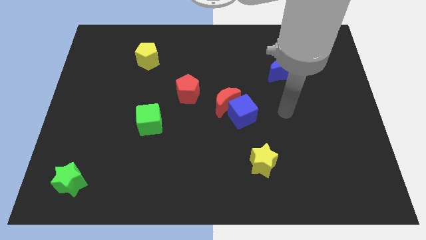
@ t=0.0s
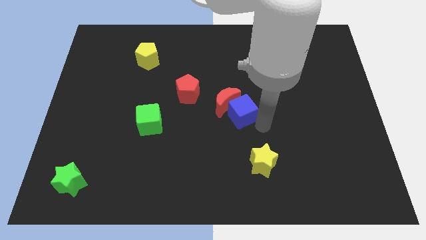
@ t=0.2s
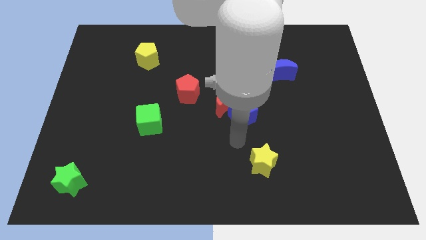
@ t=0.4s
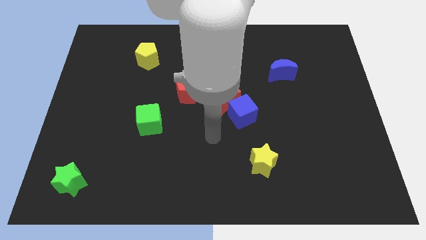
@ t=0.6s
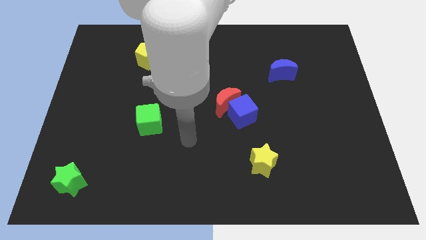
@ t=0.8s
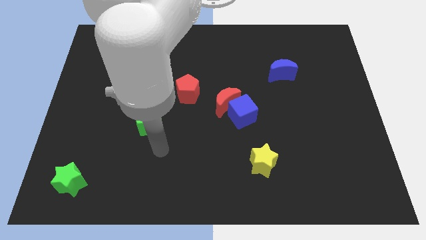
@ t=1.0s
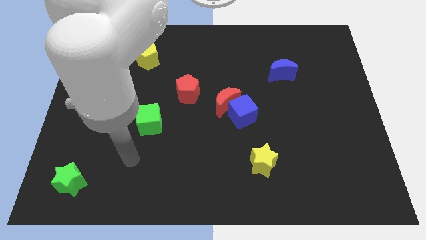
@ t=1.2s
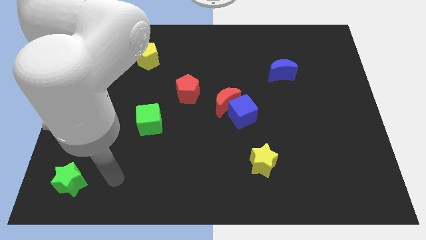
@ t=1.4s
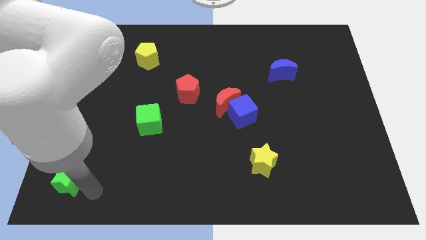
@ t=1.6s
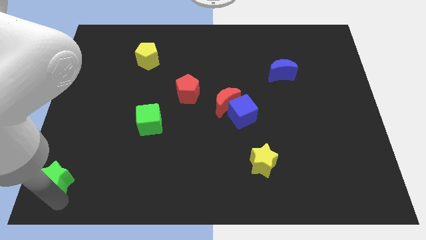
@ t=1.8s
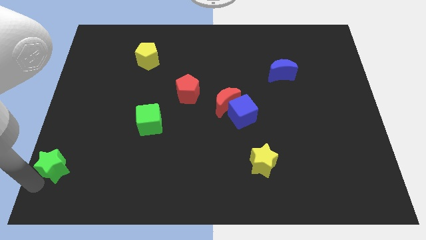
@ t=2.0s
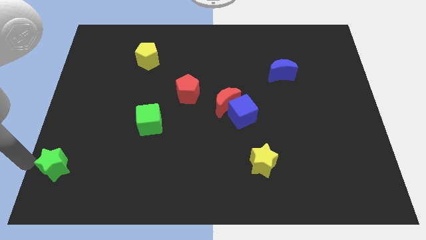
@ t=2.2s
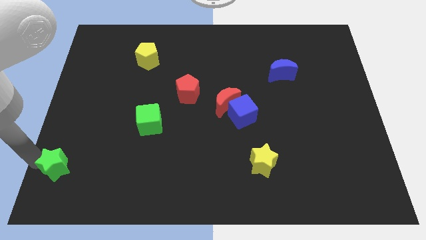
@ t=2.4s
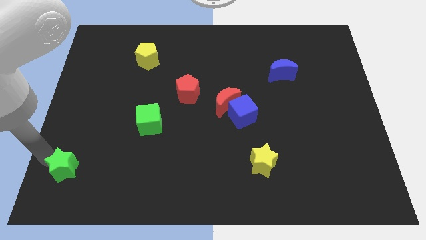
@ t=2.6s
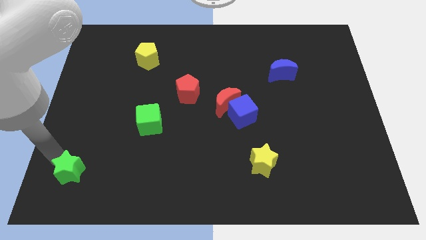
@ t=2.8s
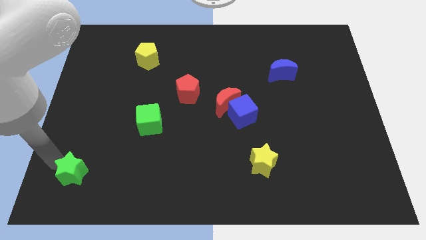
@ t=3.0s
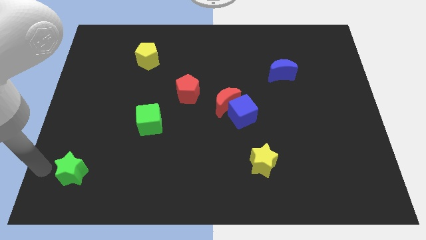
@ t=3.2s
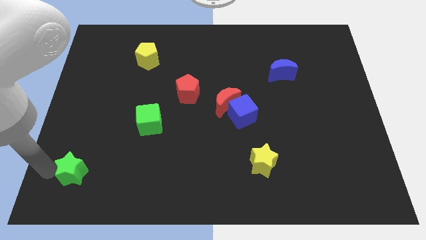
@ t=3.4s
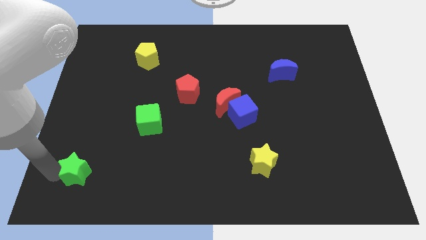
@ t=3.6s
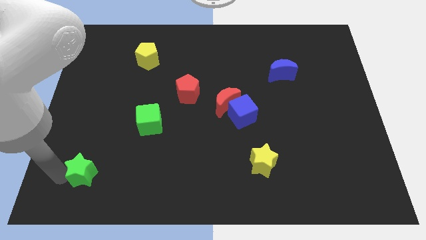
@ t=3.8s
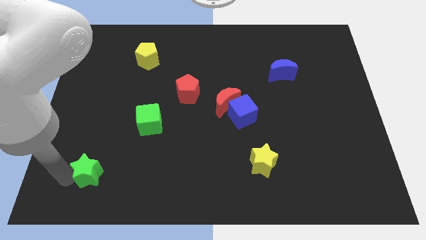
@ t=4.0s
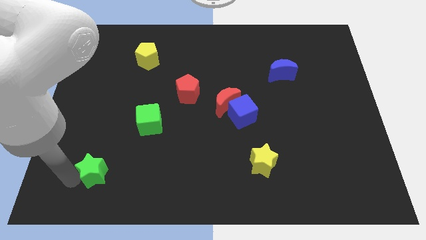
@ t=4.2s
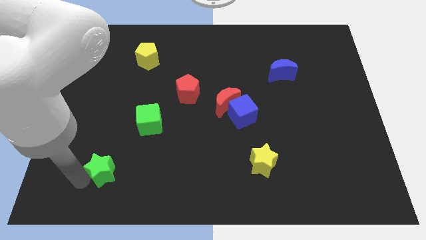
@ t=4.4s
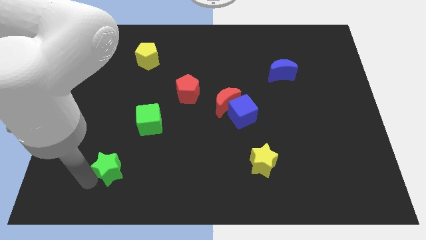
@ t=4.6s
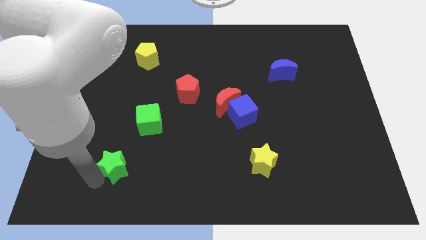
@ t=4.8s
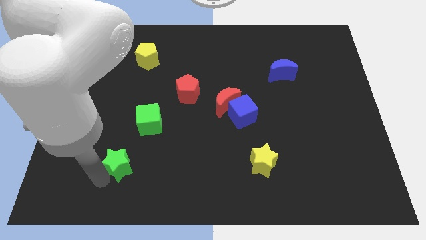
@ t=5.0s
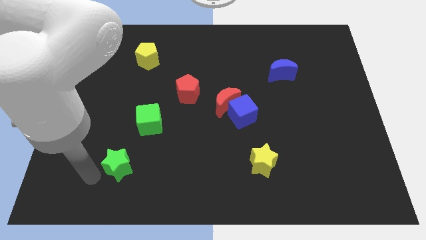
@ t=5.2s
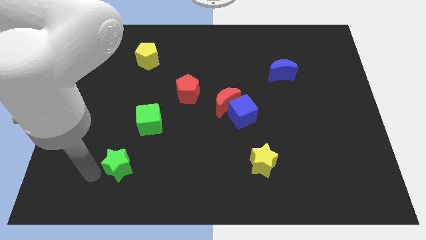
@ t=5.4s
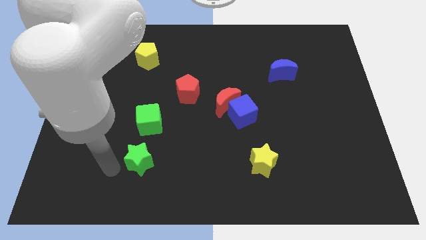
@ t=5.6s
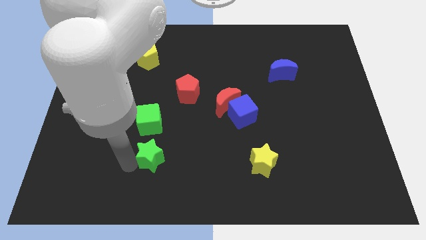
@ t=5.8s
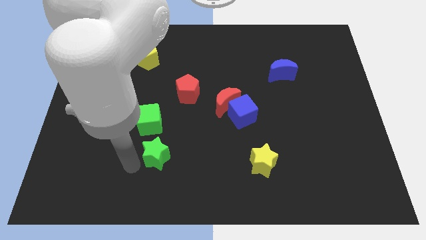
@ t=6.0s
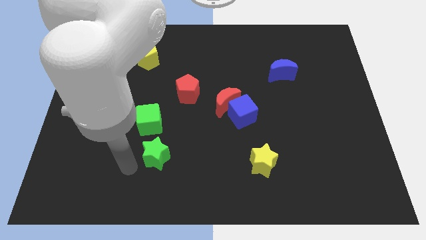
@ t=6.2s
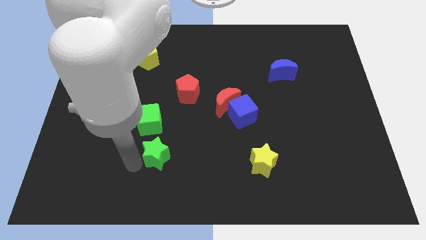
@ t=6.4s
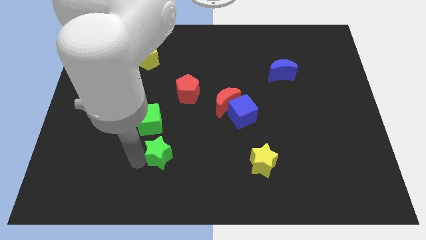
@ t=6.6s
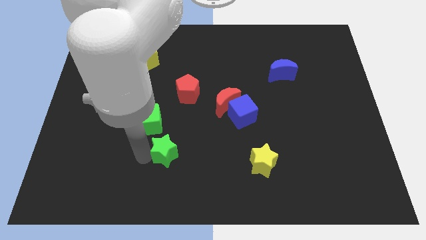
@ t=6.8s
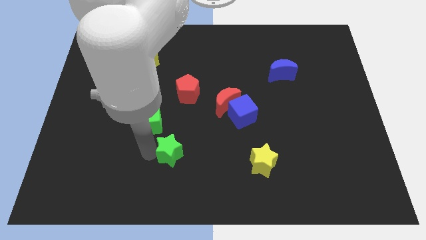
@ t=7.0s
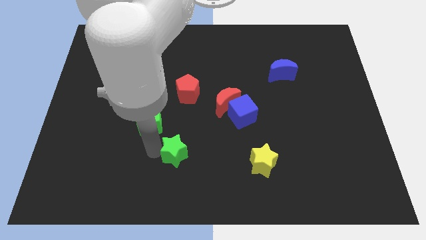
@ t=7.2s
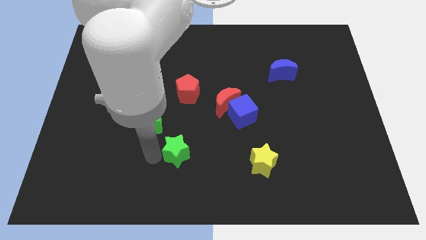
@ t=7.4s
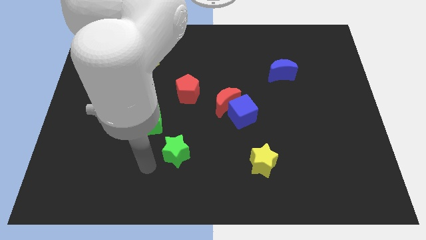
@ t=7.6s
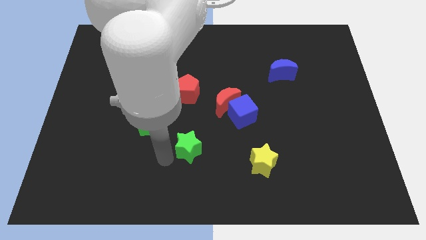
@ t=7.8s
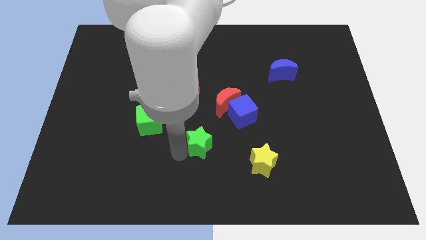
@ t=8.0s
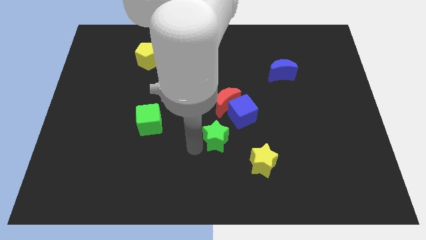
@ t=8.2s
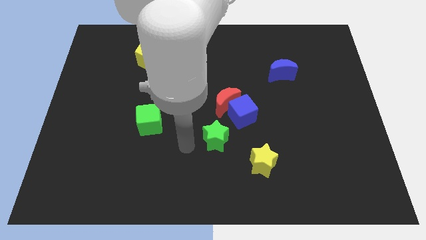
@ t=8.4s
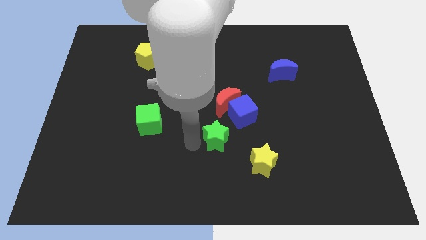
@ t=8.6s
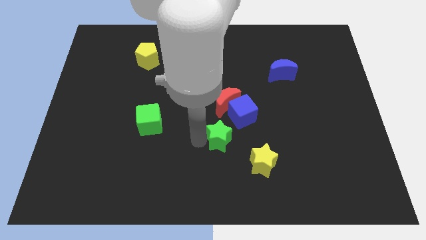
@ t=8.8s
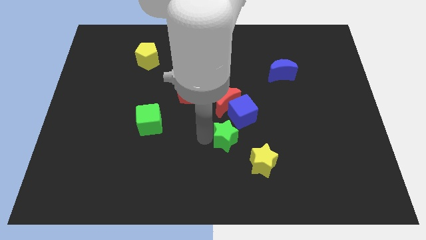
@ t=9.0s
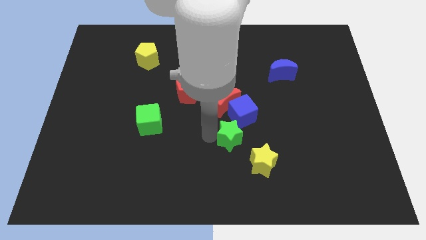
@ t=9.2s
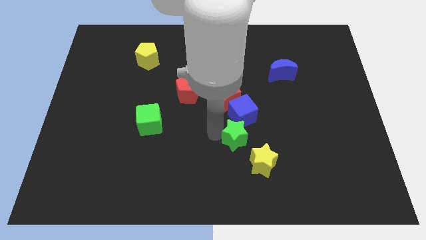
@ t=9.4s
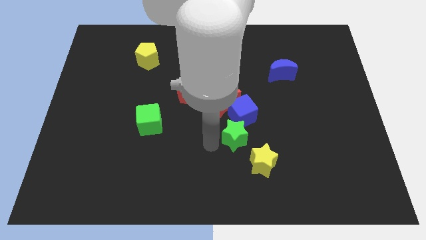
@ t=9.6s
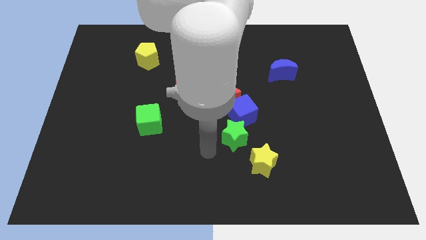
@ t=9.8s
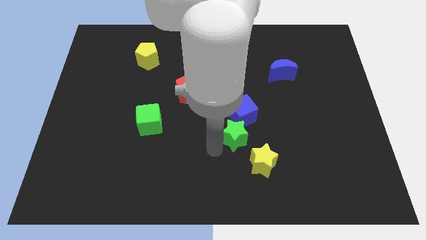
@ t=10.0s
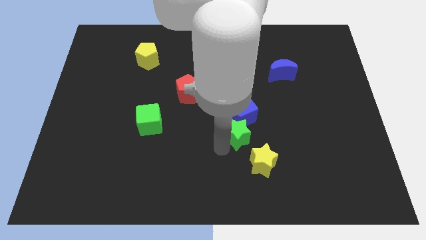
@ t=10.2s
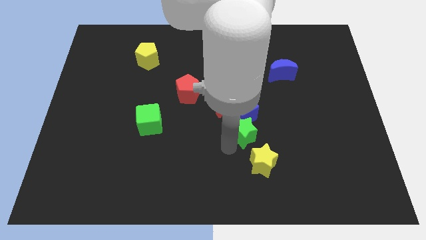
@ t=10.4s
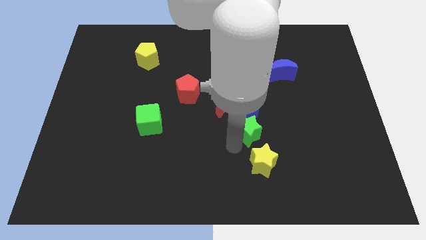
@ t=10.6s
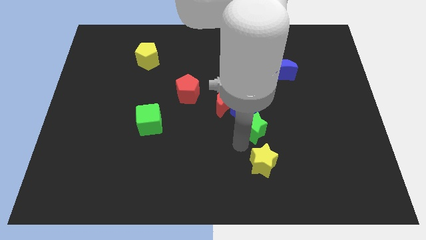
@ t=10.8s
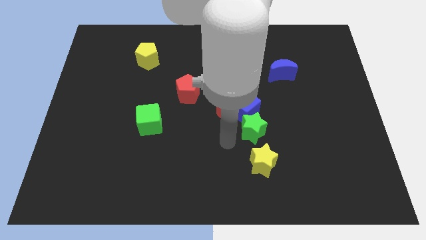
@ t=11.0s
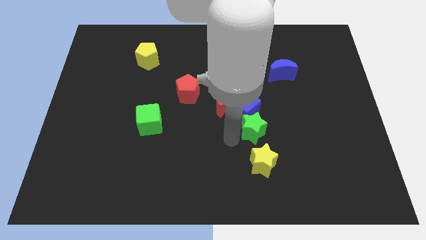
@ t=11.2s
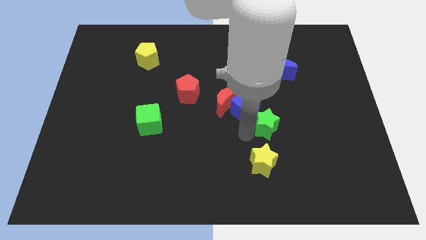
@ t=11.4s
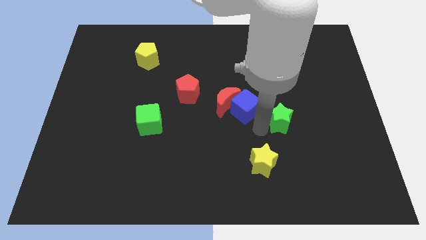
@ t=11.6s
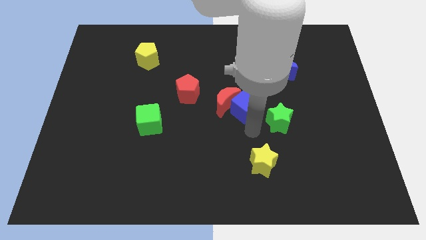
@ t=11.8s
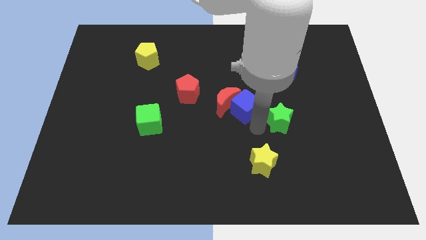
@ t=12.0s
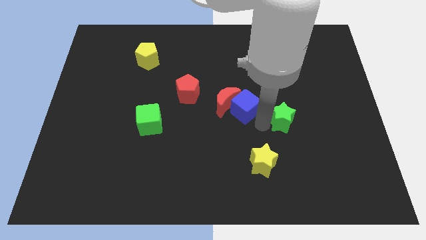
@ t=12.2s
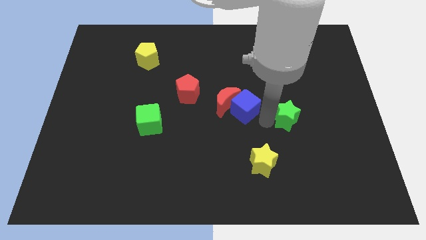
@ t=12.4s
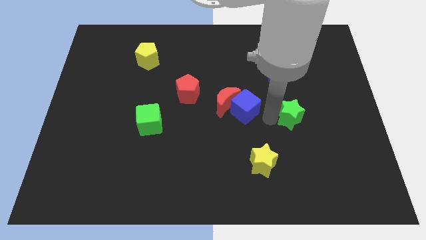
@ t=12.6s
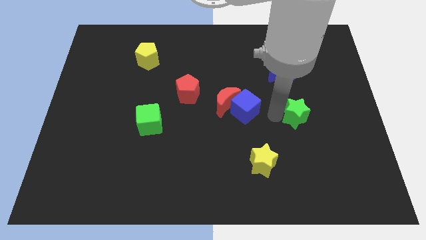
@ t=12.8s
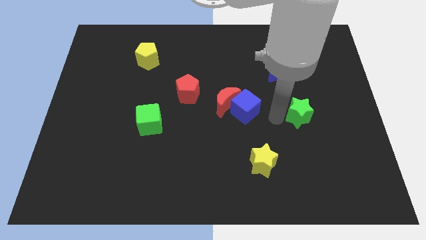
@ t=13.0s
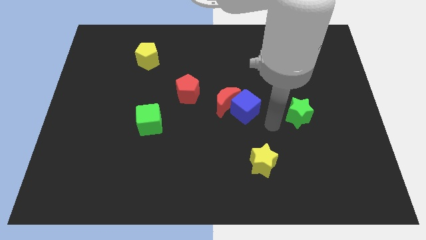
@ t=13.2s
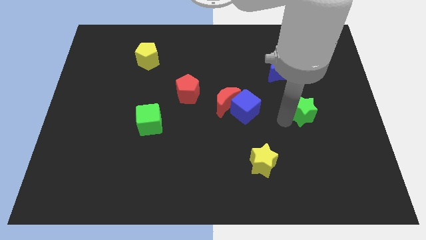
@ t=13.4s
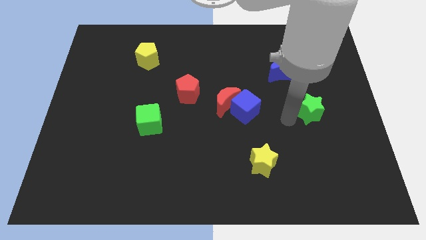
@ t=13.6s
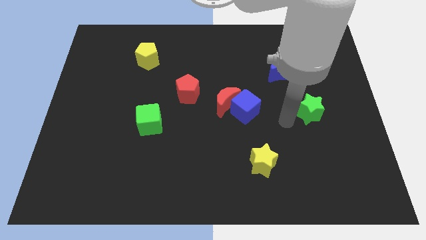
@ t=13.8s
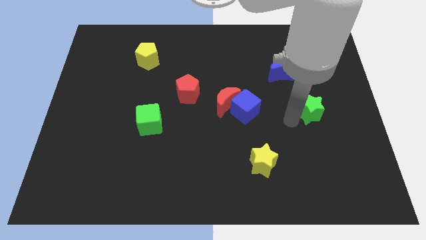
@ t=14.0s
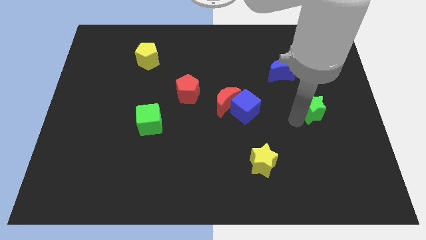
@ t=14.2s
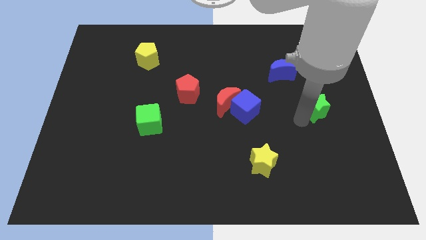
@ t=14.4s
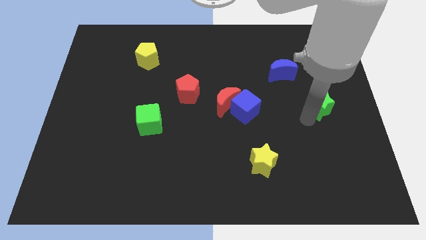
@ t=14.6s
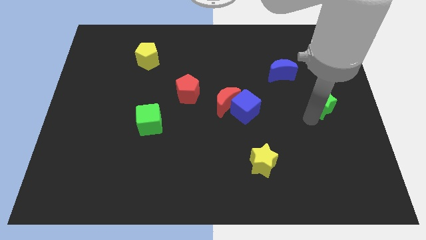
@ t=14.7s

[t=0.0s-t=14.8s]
slide the green star to the right side of the board
